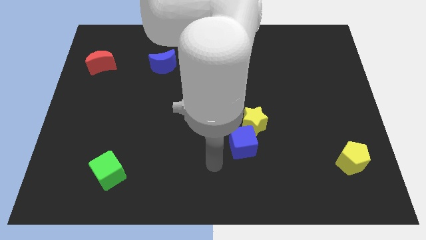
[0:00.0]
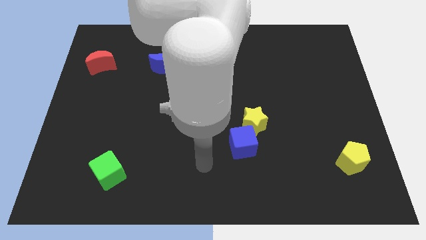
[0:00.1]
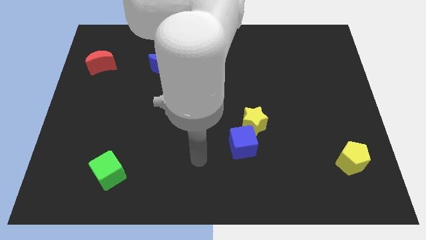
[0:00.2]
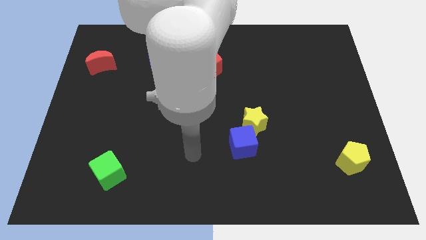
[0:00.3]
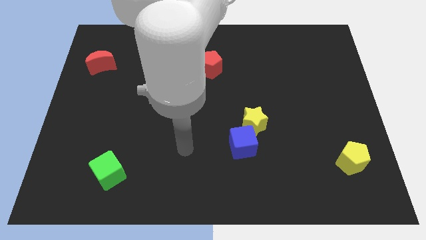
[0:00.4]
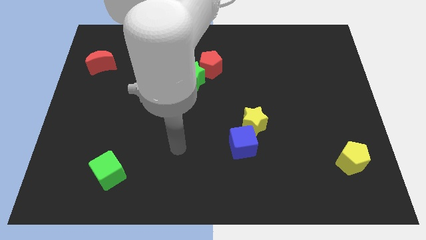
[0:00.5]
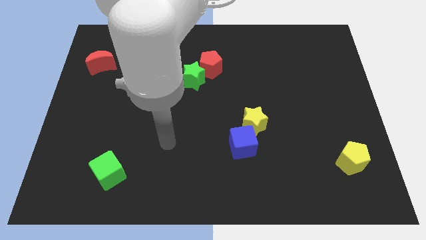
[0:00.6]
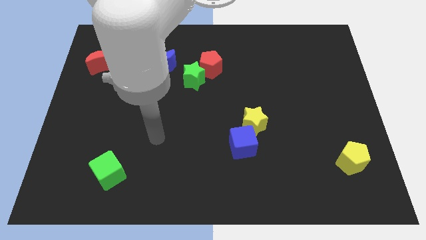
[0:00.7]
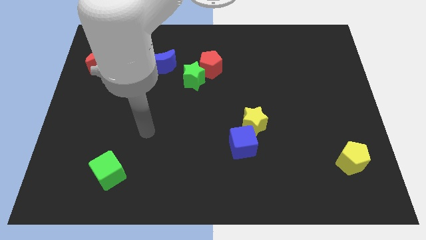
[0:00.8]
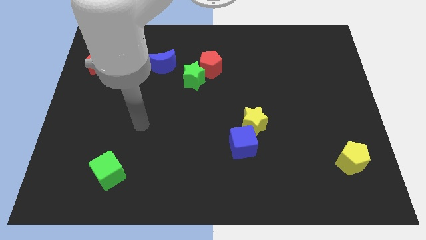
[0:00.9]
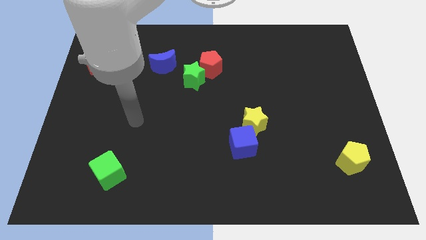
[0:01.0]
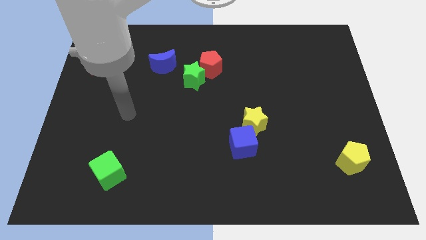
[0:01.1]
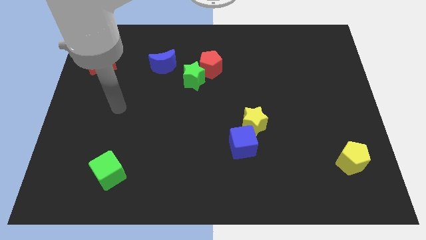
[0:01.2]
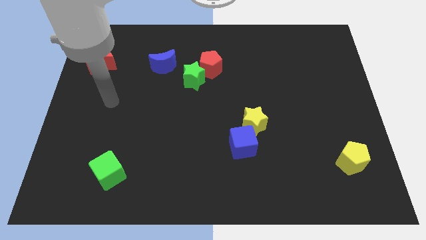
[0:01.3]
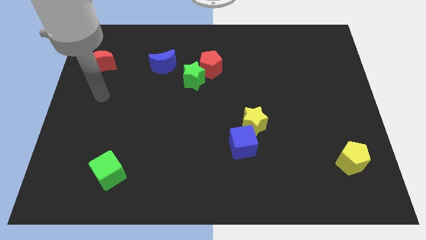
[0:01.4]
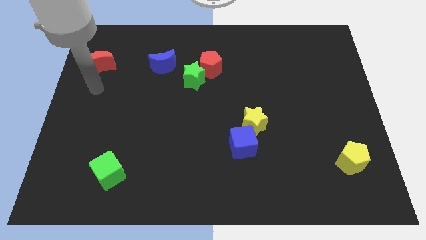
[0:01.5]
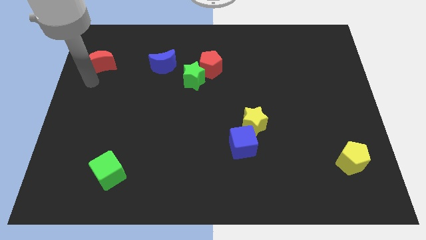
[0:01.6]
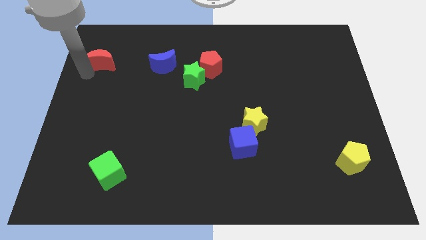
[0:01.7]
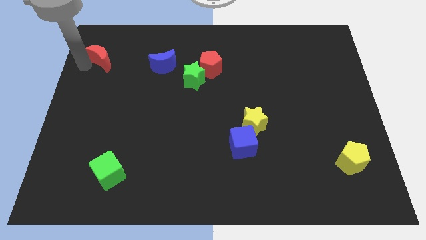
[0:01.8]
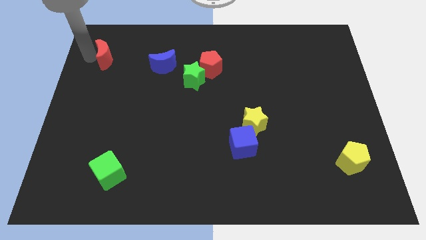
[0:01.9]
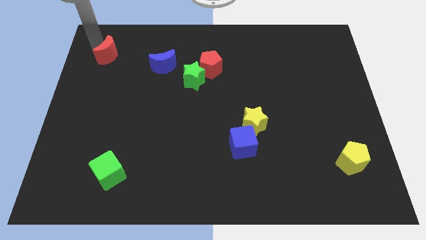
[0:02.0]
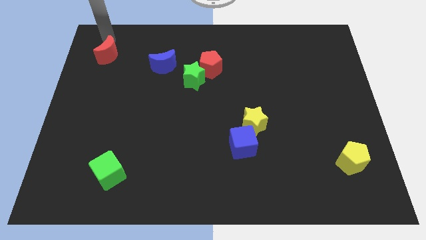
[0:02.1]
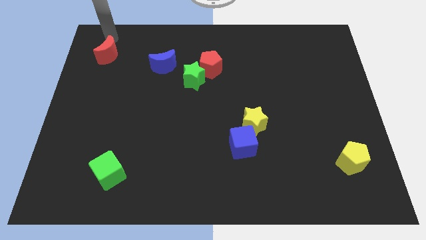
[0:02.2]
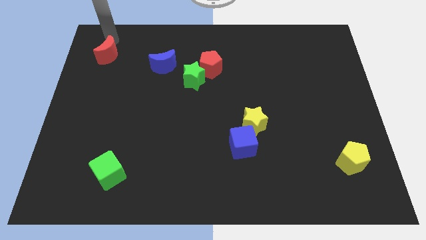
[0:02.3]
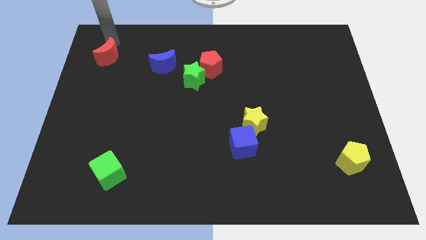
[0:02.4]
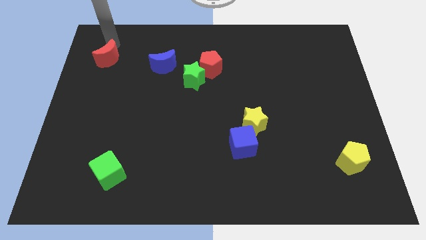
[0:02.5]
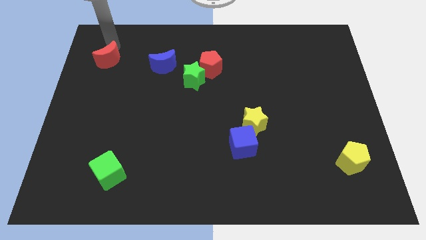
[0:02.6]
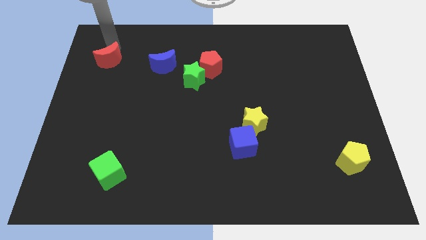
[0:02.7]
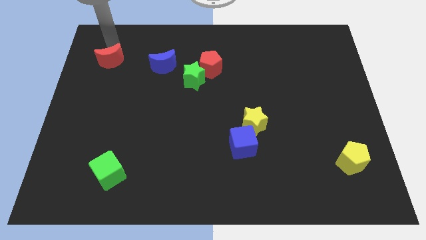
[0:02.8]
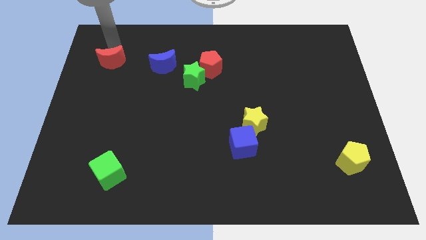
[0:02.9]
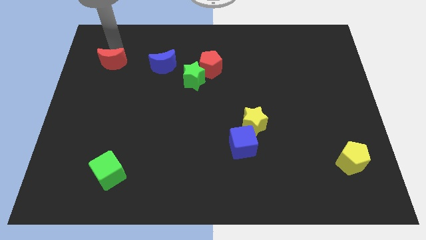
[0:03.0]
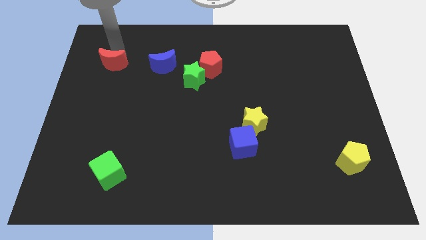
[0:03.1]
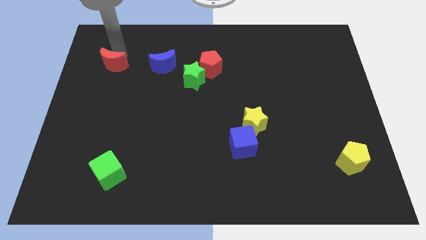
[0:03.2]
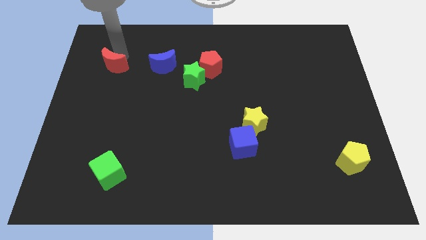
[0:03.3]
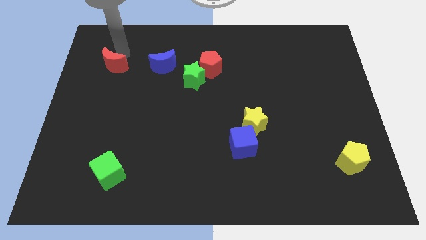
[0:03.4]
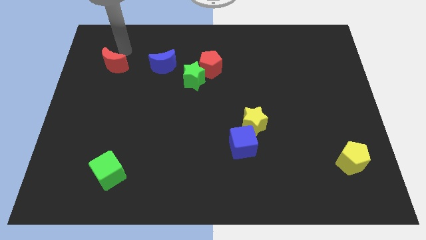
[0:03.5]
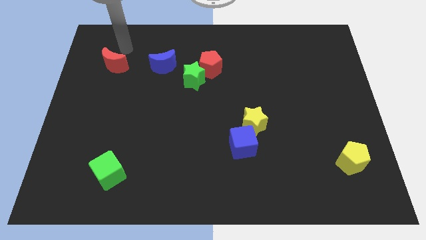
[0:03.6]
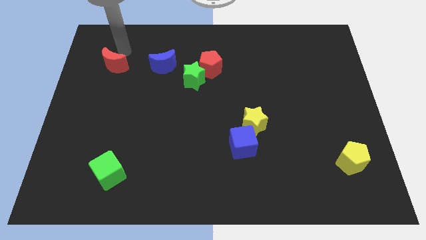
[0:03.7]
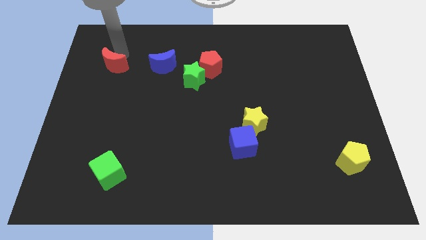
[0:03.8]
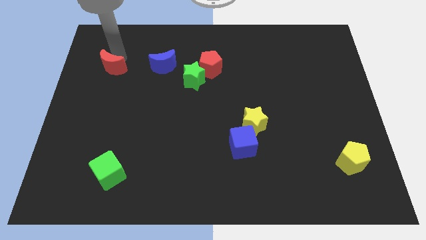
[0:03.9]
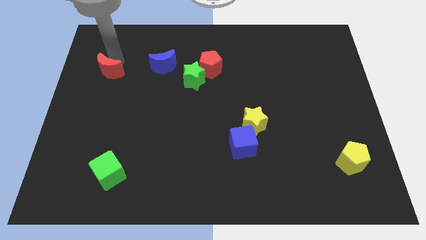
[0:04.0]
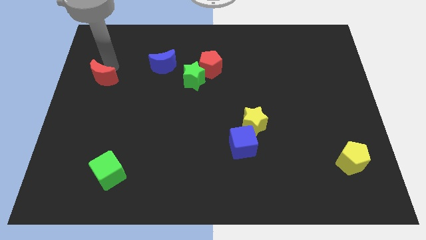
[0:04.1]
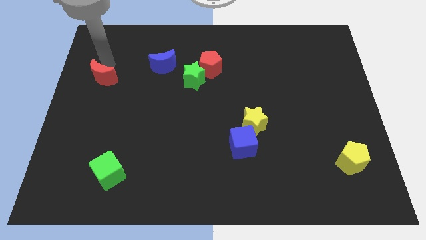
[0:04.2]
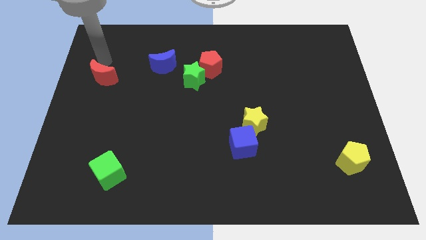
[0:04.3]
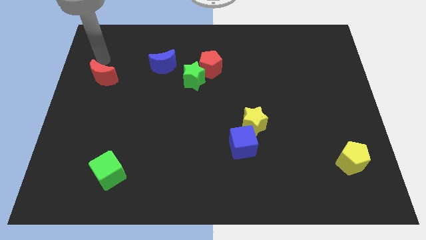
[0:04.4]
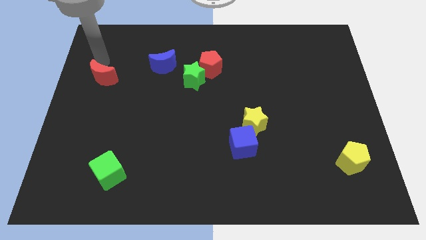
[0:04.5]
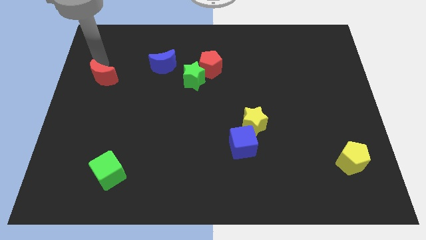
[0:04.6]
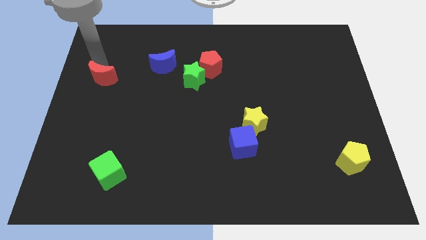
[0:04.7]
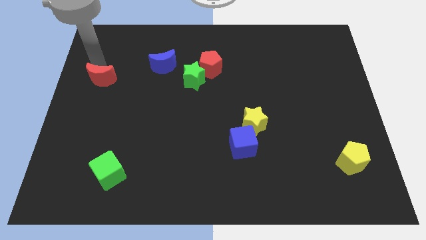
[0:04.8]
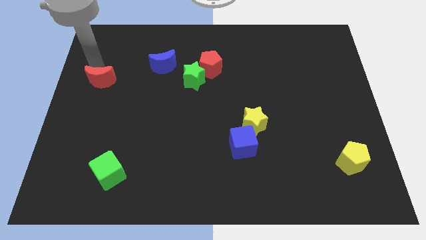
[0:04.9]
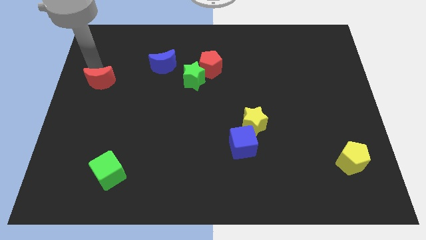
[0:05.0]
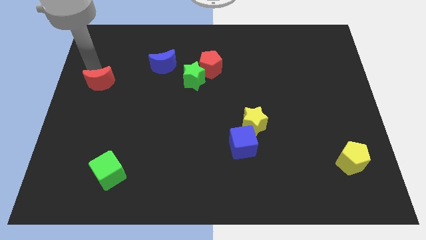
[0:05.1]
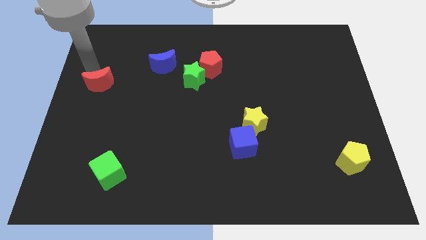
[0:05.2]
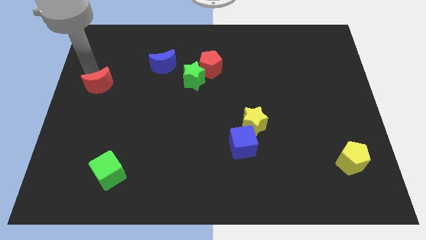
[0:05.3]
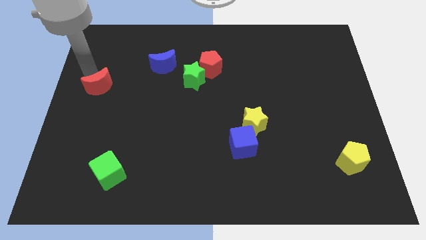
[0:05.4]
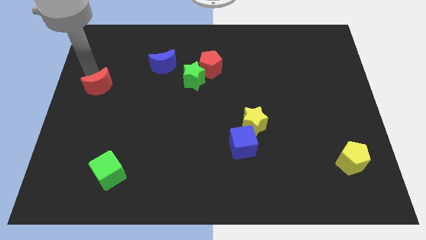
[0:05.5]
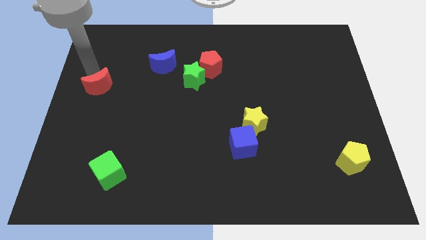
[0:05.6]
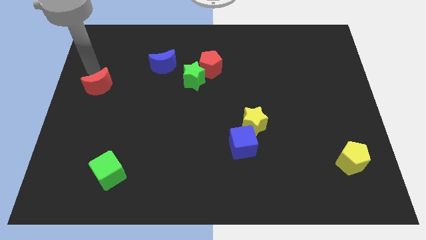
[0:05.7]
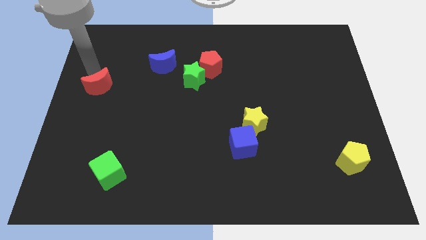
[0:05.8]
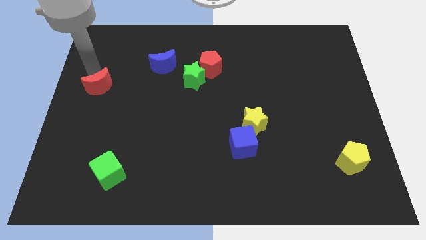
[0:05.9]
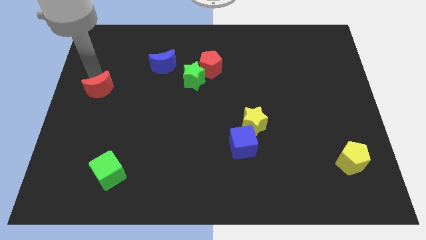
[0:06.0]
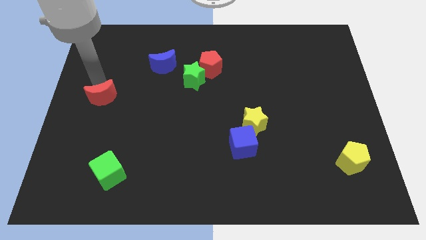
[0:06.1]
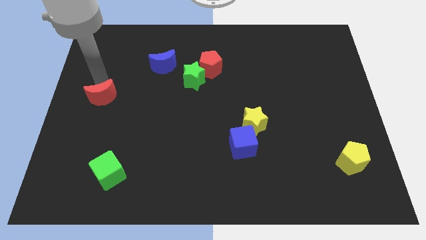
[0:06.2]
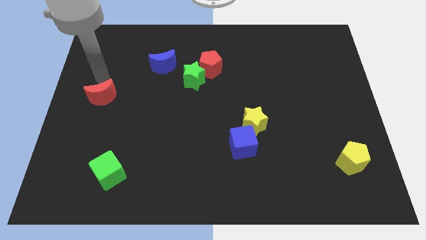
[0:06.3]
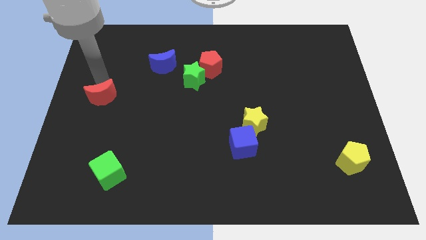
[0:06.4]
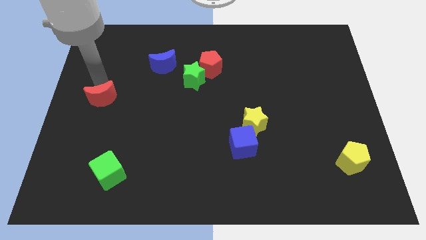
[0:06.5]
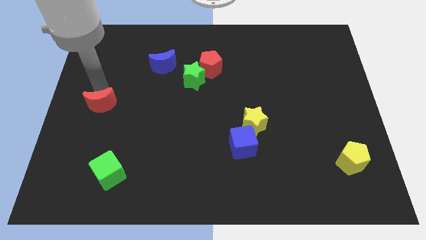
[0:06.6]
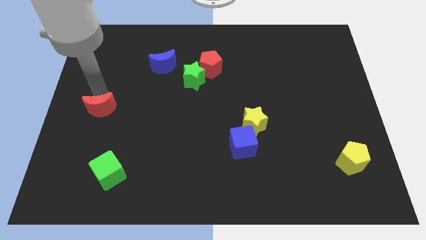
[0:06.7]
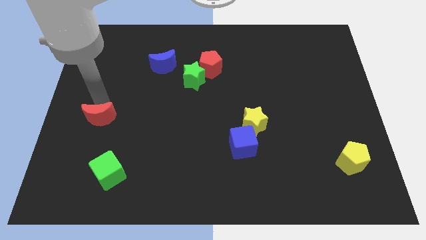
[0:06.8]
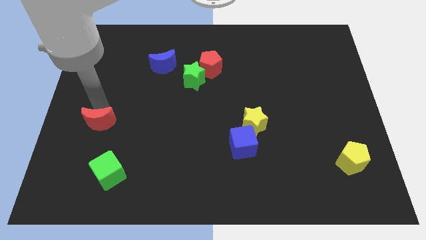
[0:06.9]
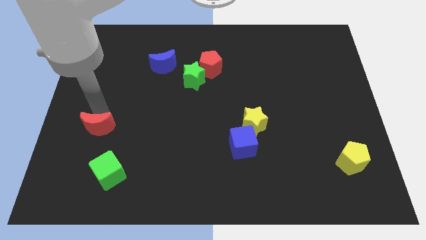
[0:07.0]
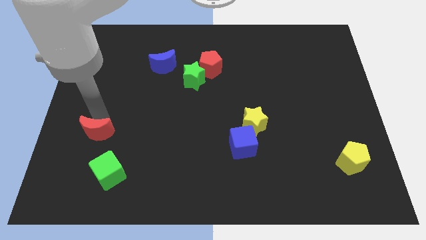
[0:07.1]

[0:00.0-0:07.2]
slide the red moon downwards

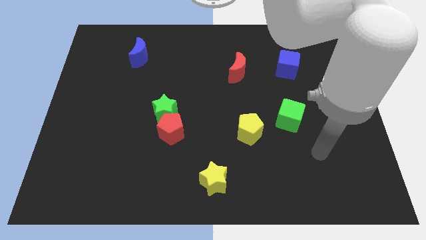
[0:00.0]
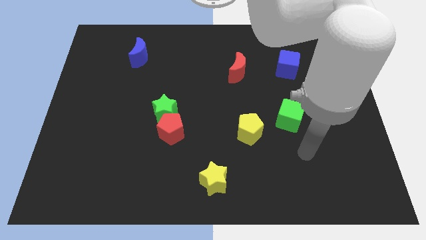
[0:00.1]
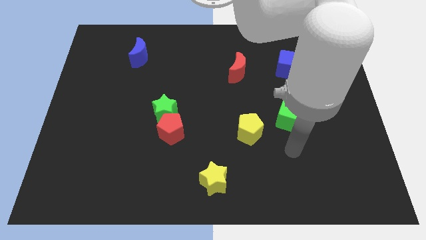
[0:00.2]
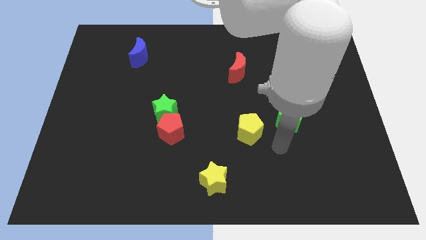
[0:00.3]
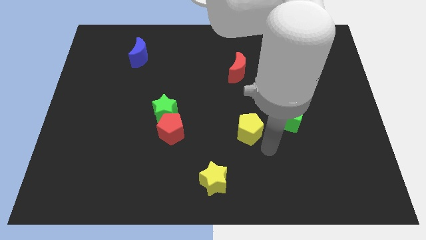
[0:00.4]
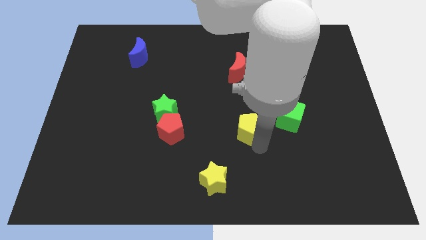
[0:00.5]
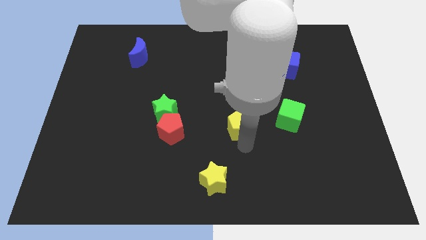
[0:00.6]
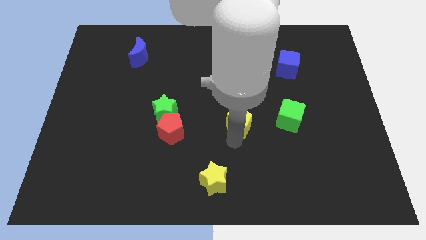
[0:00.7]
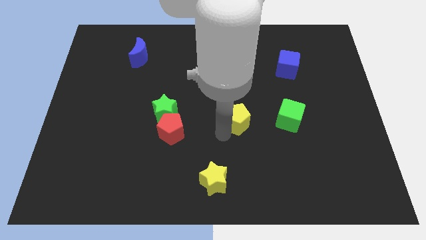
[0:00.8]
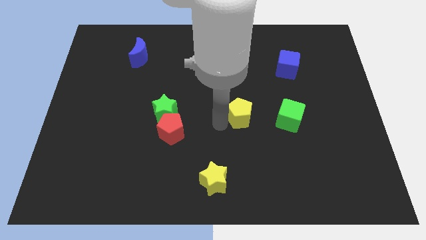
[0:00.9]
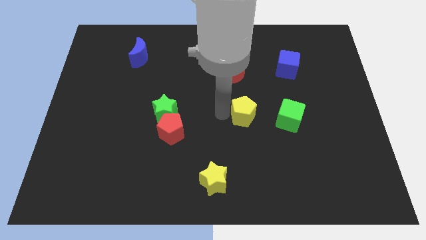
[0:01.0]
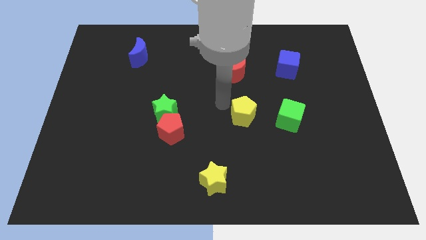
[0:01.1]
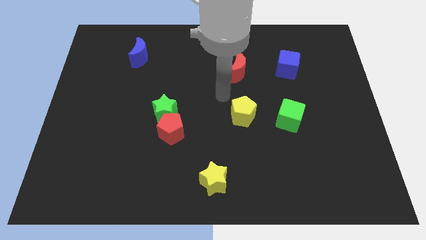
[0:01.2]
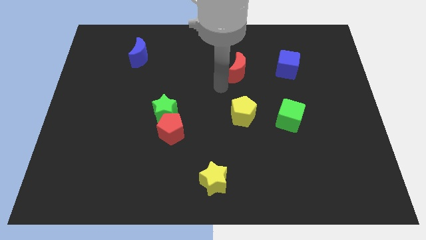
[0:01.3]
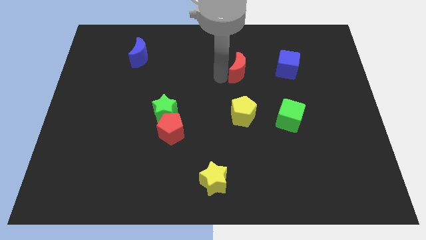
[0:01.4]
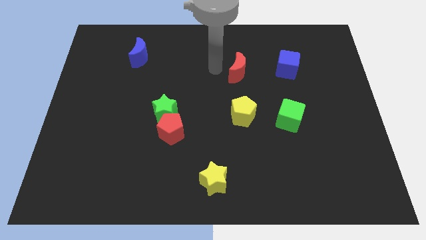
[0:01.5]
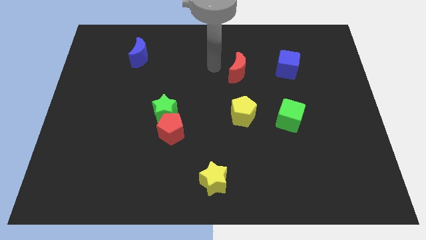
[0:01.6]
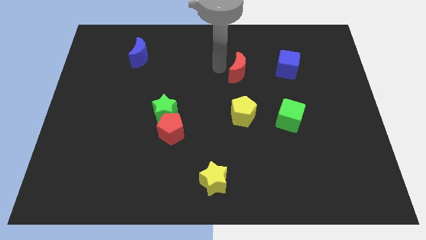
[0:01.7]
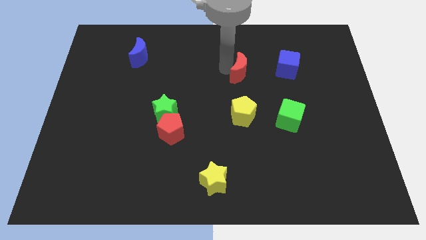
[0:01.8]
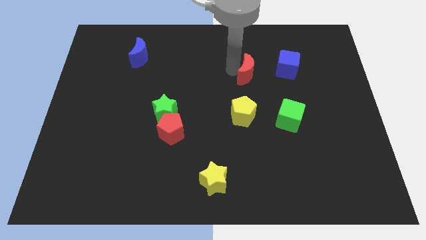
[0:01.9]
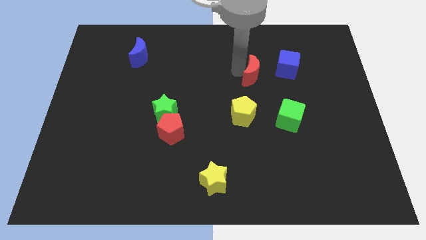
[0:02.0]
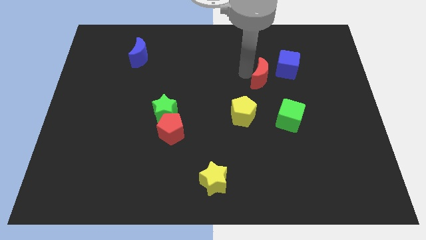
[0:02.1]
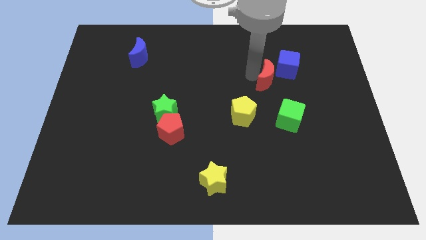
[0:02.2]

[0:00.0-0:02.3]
move the red moon a bit to the right
